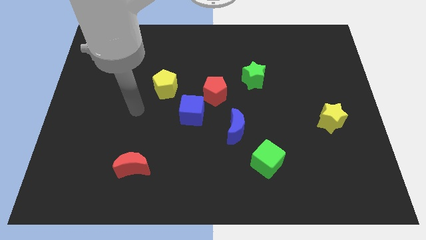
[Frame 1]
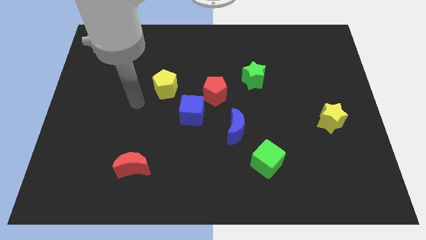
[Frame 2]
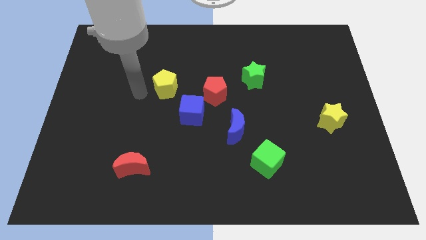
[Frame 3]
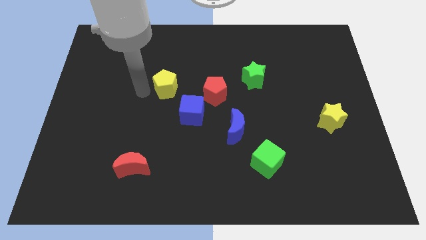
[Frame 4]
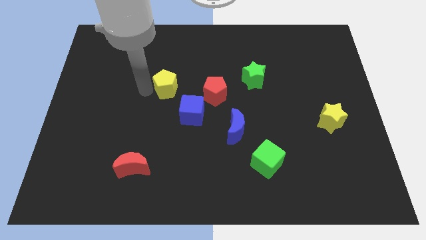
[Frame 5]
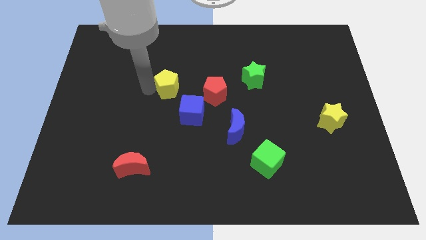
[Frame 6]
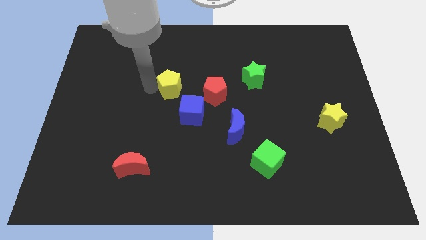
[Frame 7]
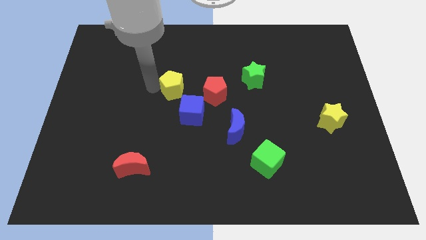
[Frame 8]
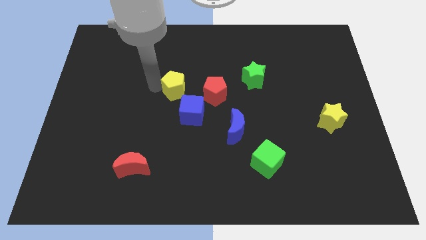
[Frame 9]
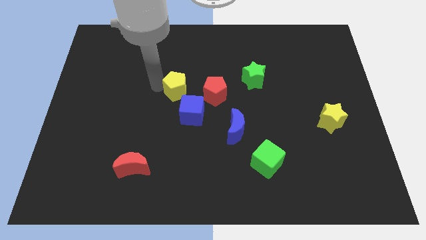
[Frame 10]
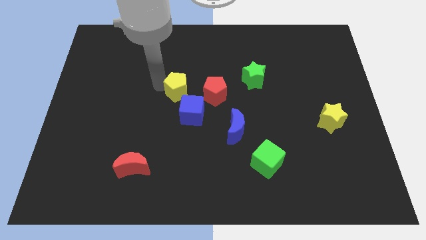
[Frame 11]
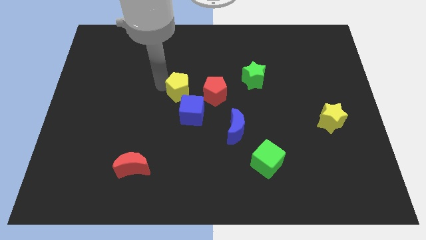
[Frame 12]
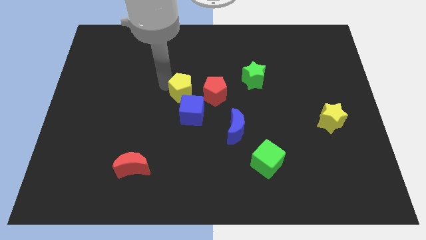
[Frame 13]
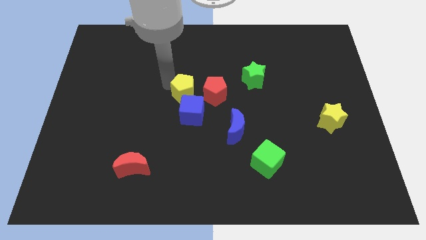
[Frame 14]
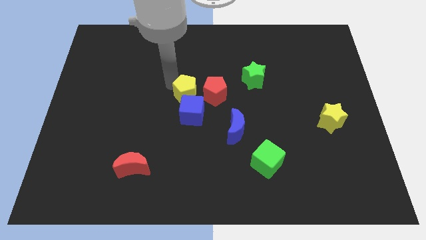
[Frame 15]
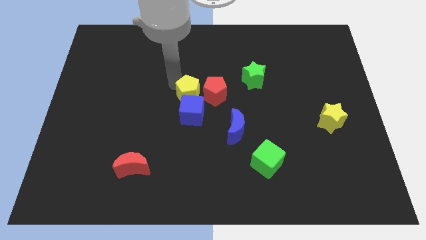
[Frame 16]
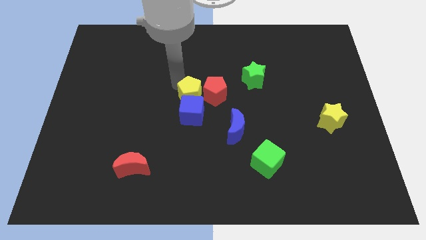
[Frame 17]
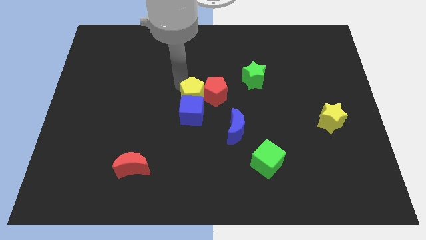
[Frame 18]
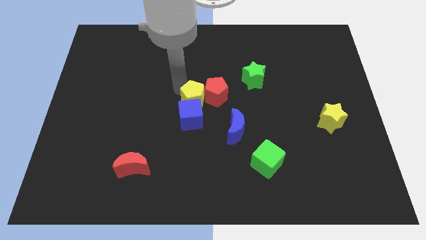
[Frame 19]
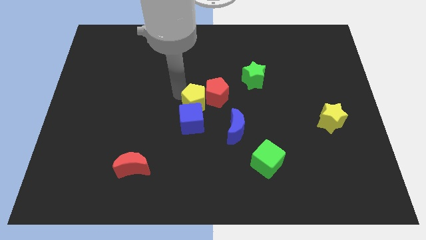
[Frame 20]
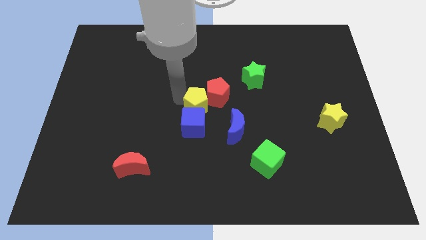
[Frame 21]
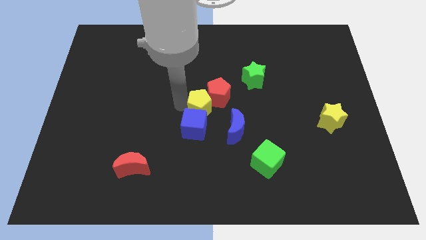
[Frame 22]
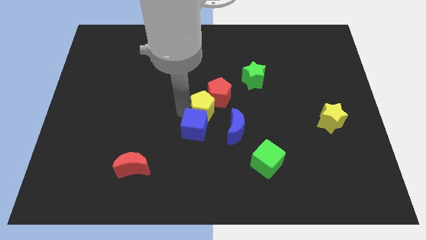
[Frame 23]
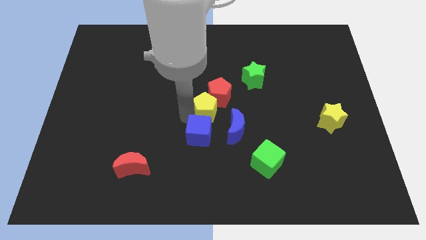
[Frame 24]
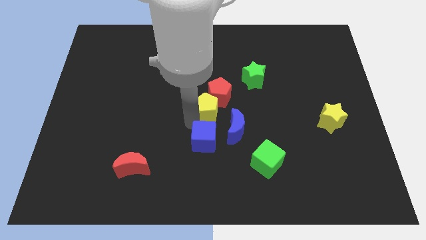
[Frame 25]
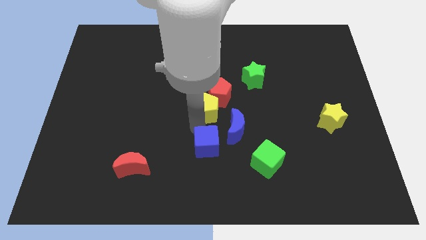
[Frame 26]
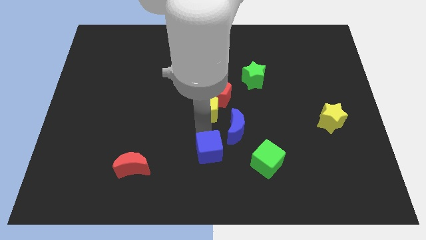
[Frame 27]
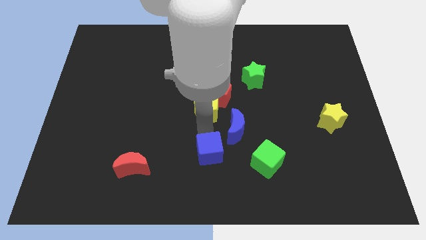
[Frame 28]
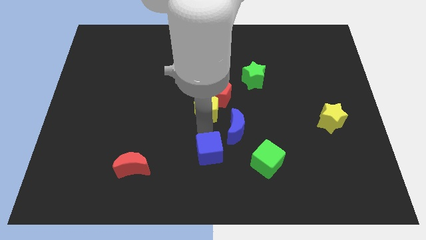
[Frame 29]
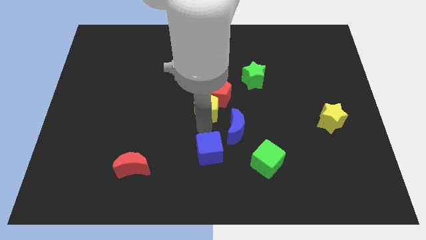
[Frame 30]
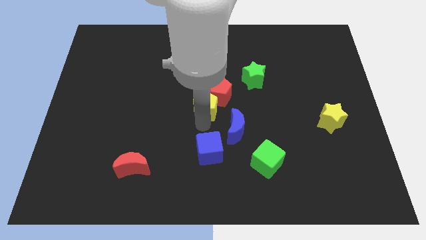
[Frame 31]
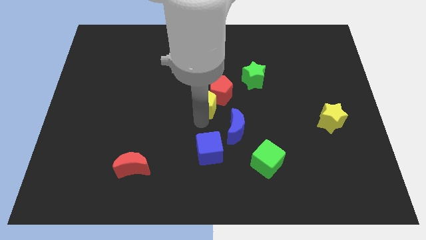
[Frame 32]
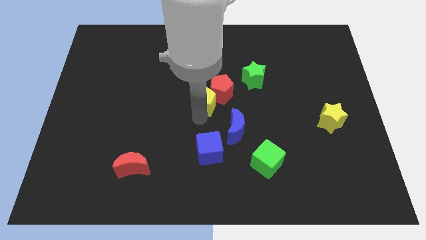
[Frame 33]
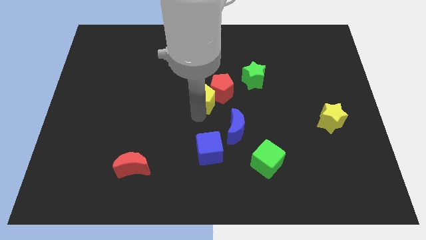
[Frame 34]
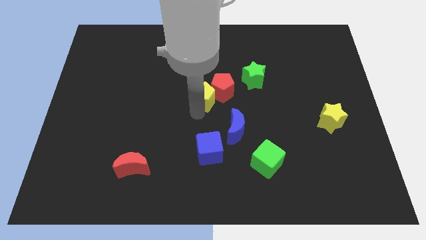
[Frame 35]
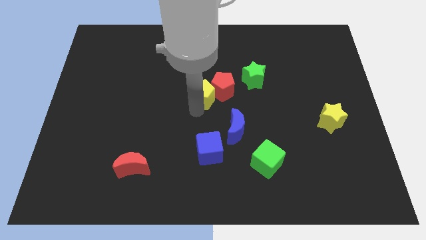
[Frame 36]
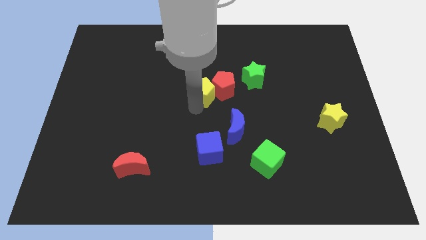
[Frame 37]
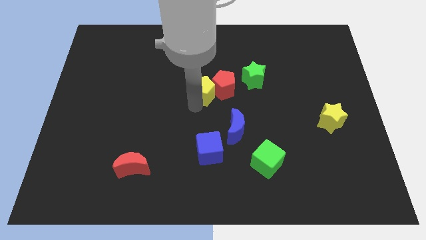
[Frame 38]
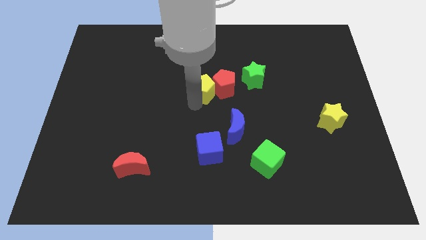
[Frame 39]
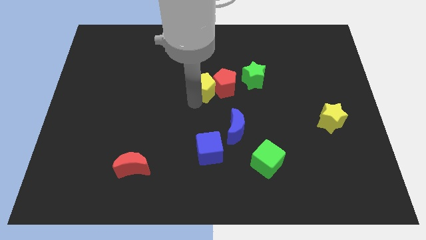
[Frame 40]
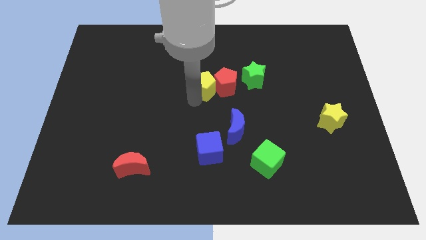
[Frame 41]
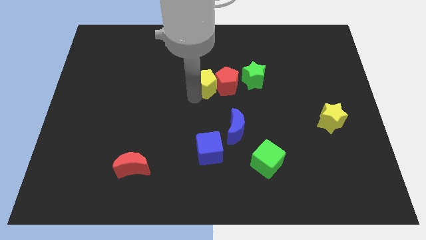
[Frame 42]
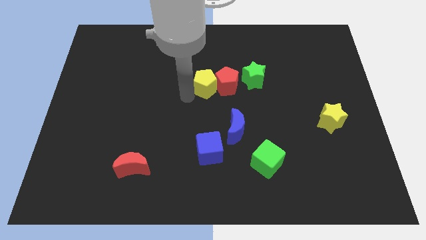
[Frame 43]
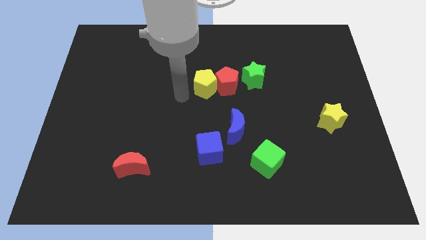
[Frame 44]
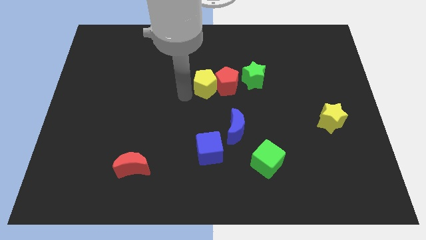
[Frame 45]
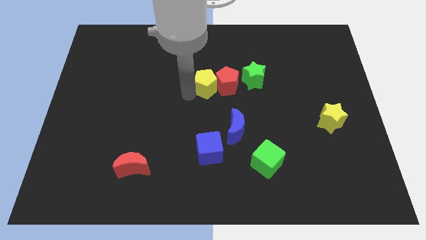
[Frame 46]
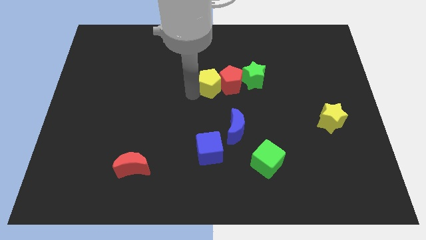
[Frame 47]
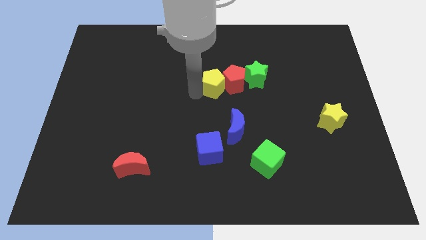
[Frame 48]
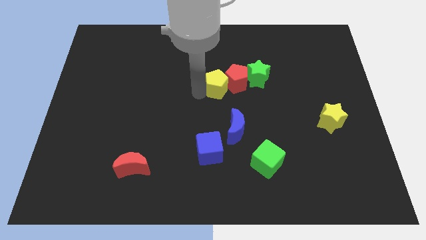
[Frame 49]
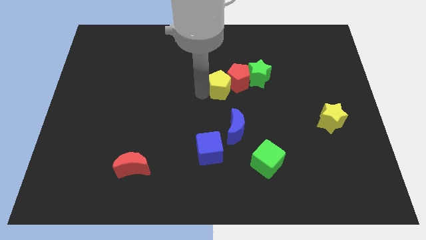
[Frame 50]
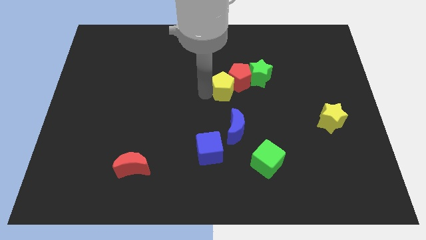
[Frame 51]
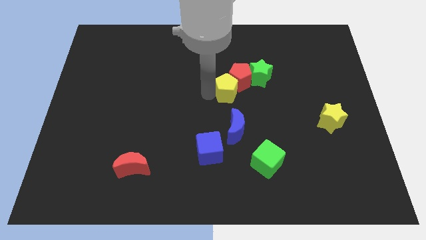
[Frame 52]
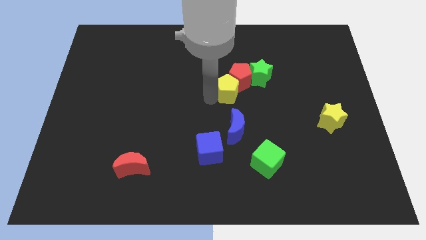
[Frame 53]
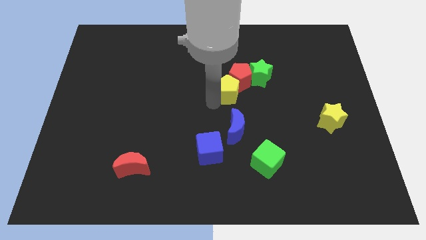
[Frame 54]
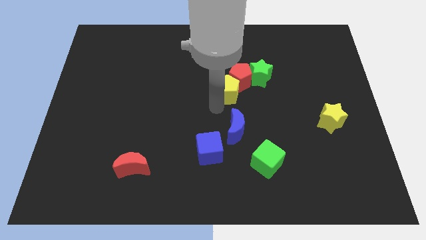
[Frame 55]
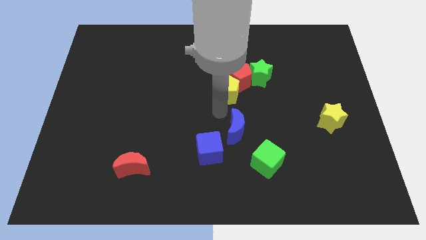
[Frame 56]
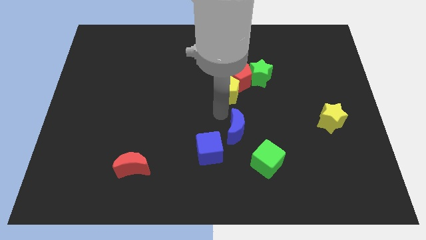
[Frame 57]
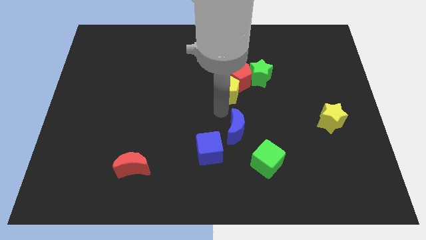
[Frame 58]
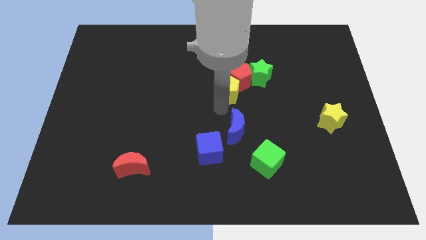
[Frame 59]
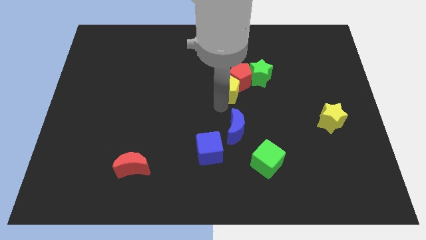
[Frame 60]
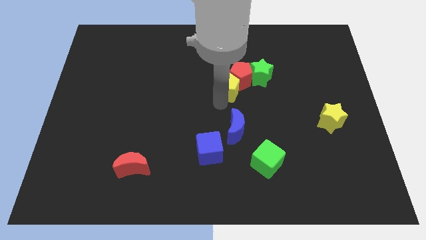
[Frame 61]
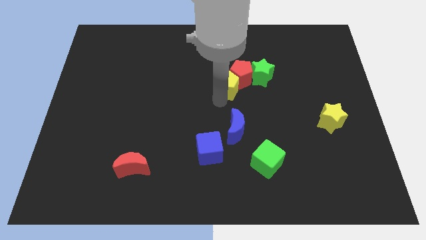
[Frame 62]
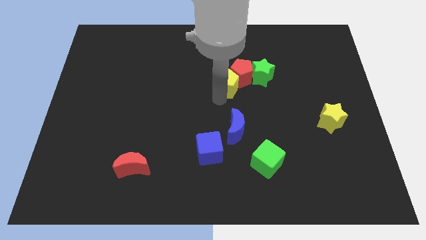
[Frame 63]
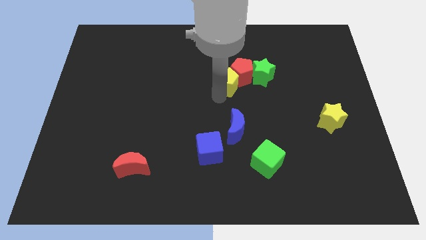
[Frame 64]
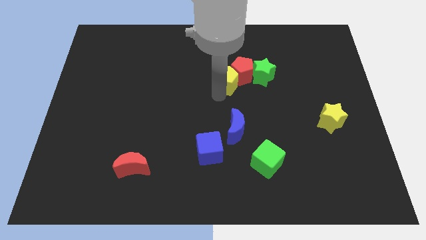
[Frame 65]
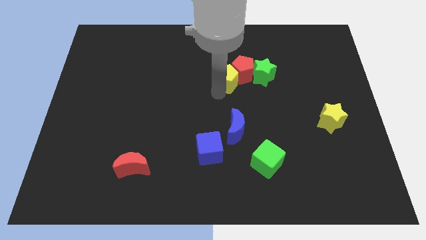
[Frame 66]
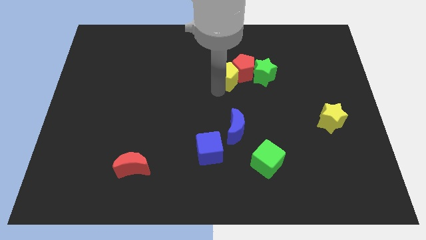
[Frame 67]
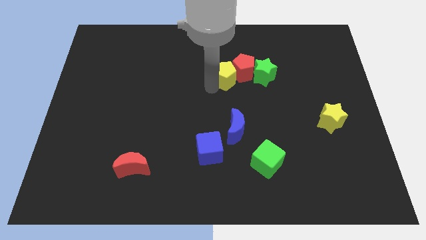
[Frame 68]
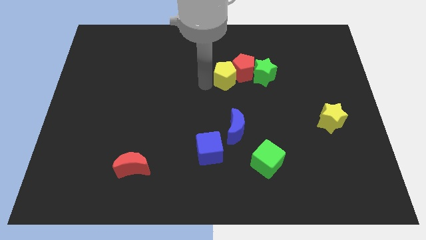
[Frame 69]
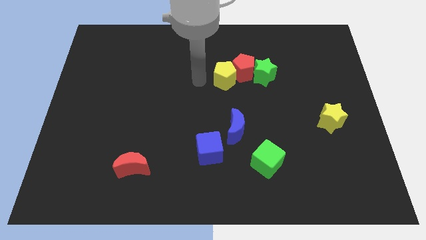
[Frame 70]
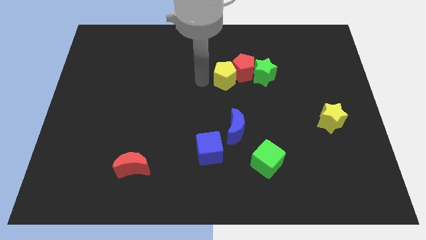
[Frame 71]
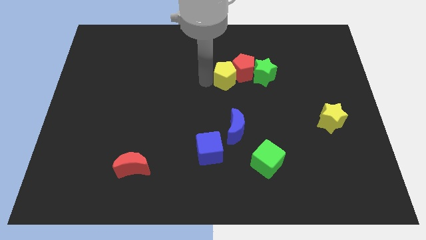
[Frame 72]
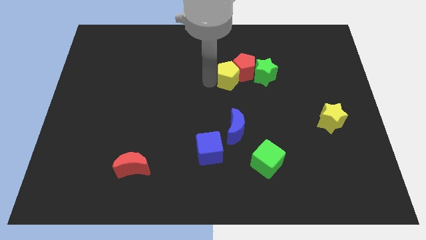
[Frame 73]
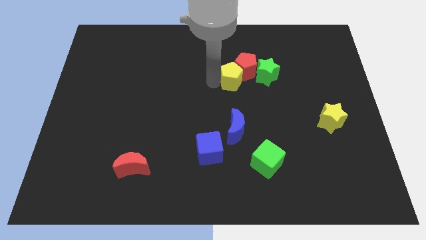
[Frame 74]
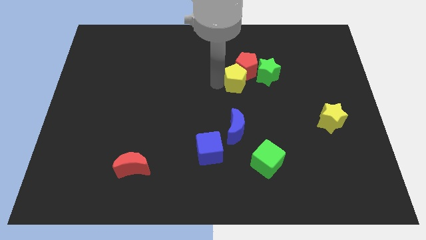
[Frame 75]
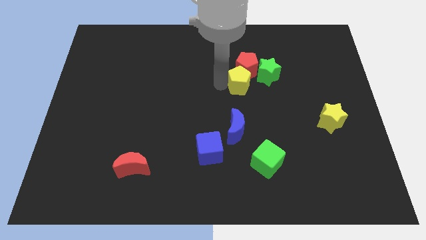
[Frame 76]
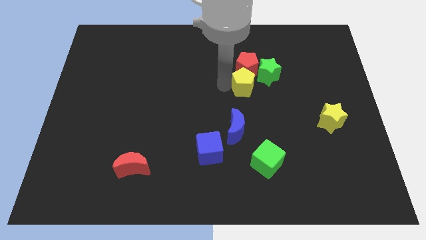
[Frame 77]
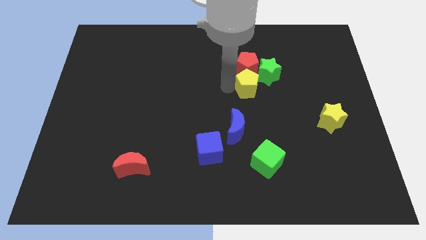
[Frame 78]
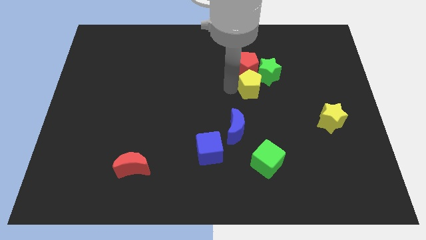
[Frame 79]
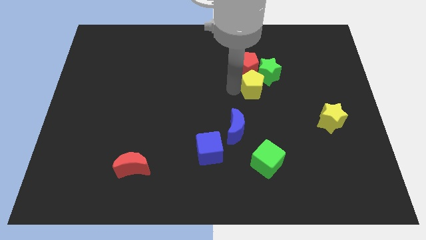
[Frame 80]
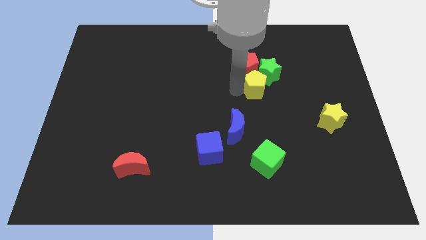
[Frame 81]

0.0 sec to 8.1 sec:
slide the yellow pentagon close to the green star
